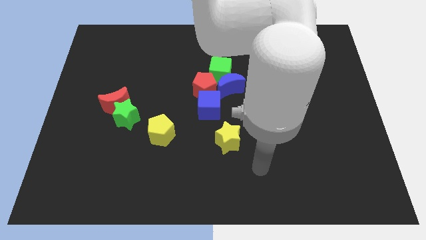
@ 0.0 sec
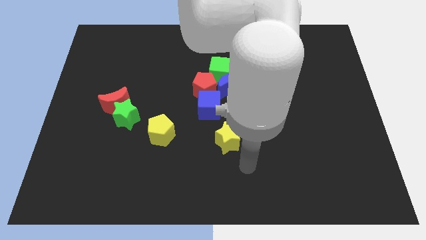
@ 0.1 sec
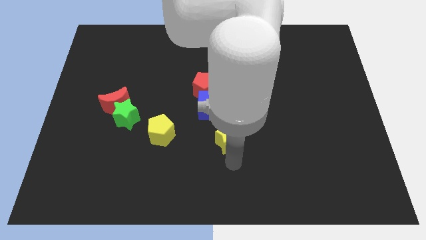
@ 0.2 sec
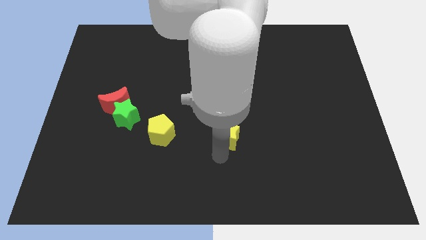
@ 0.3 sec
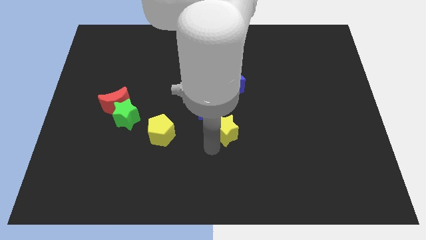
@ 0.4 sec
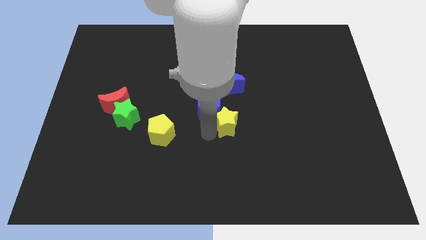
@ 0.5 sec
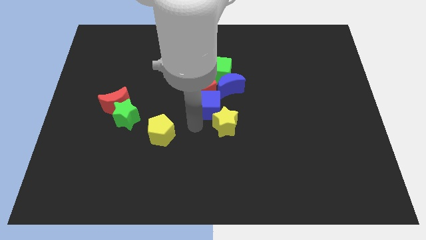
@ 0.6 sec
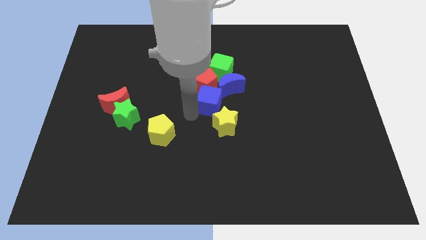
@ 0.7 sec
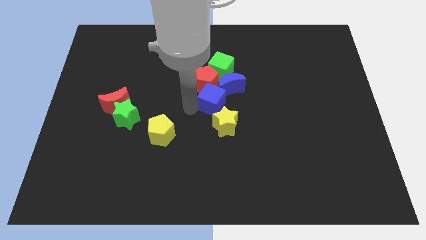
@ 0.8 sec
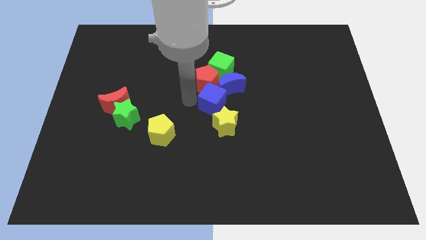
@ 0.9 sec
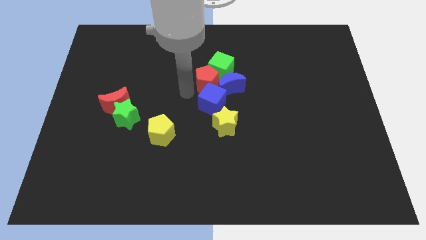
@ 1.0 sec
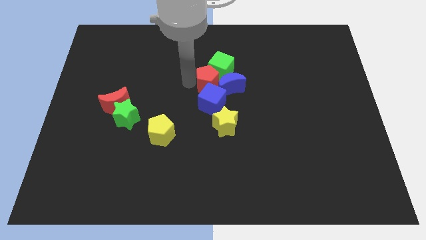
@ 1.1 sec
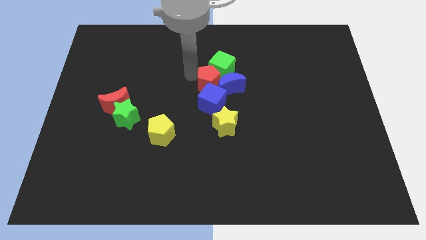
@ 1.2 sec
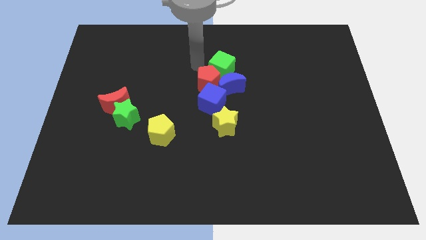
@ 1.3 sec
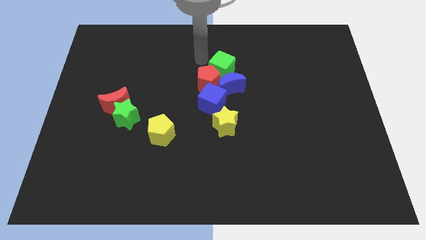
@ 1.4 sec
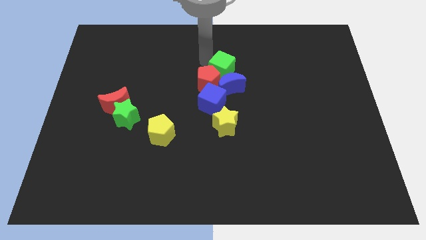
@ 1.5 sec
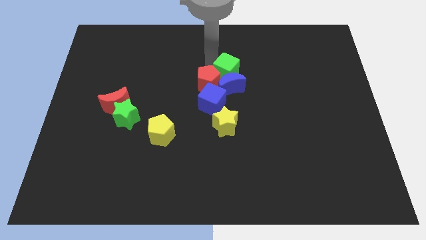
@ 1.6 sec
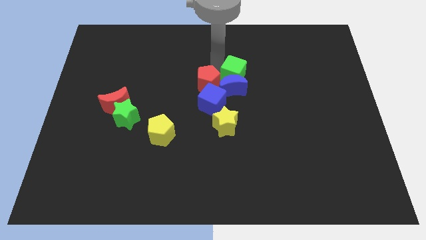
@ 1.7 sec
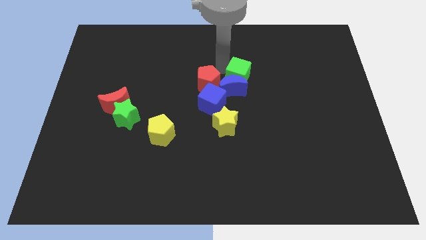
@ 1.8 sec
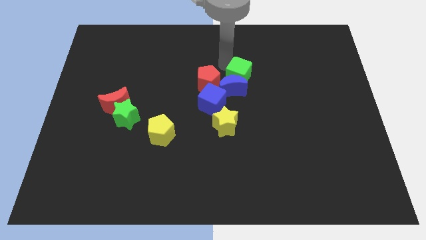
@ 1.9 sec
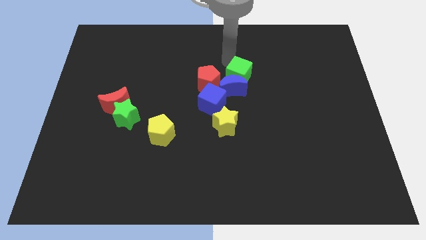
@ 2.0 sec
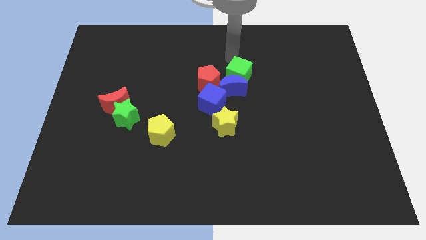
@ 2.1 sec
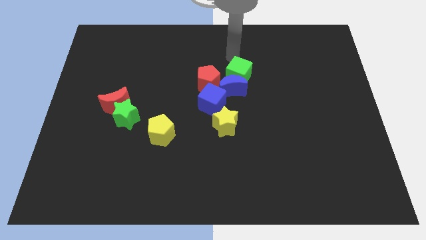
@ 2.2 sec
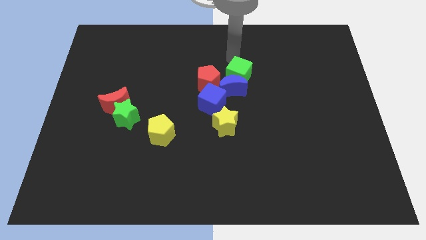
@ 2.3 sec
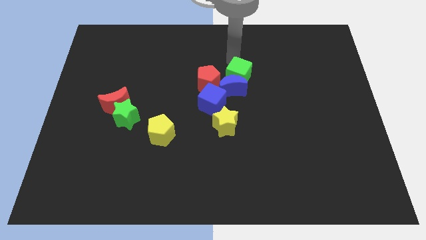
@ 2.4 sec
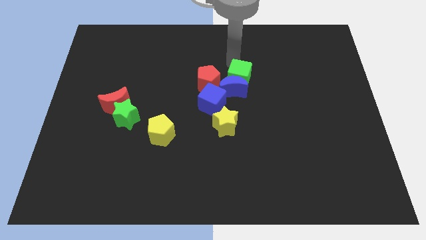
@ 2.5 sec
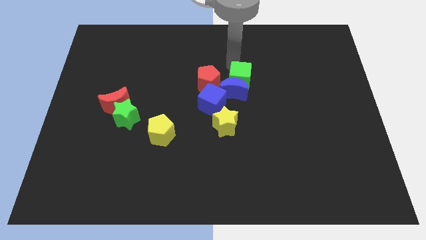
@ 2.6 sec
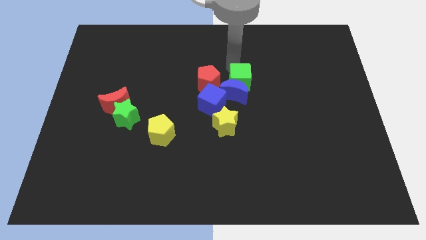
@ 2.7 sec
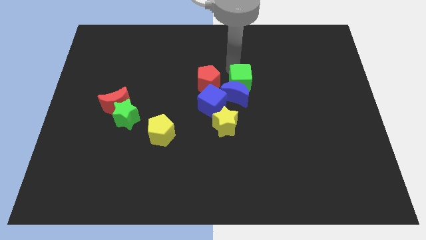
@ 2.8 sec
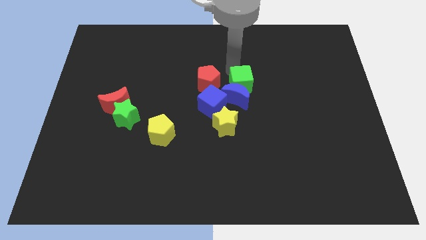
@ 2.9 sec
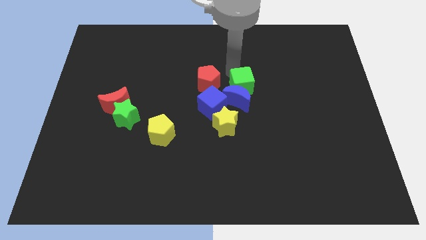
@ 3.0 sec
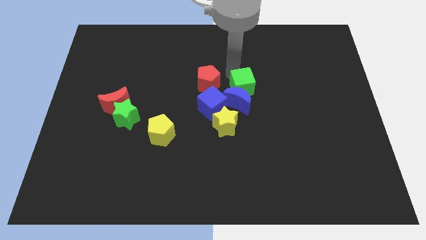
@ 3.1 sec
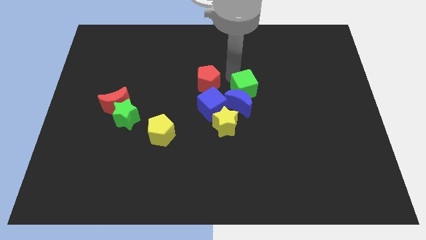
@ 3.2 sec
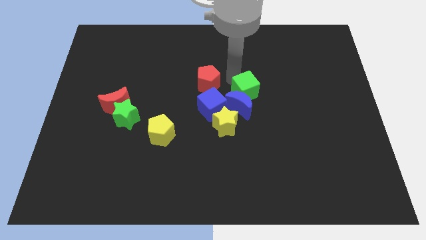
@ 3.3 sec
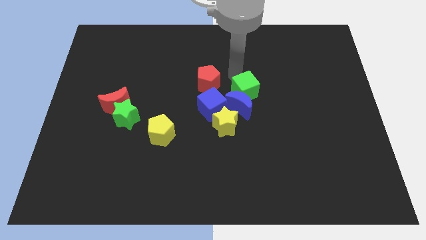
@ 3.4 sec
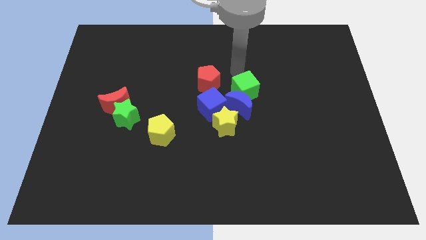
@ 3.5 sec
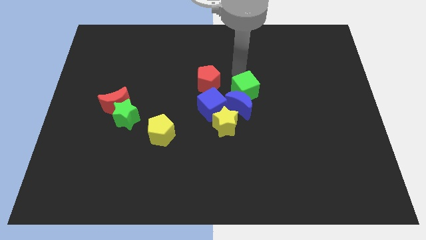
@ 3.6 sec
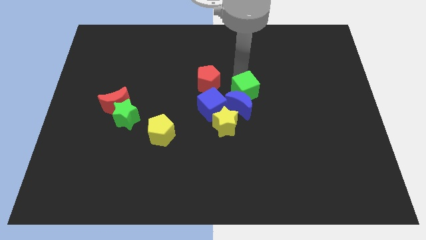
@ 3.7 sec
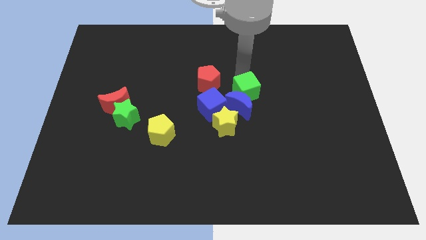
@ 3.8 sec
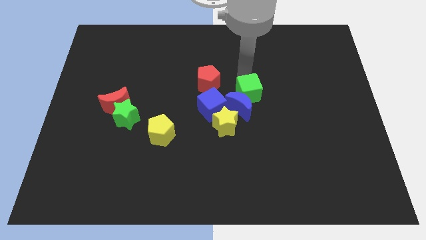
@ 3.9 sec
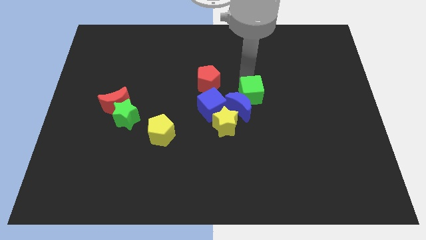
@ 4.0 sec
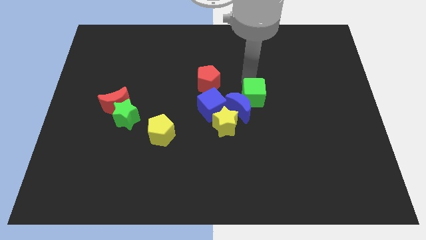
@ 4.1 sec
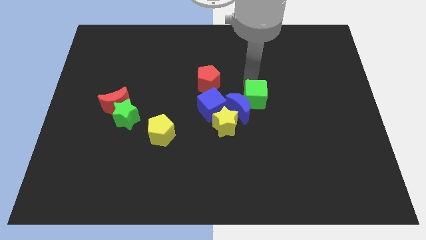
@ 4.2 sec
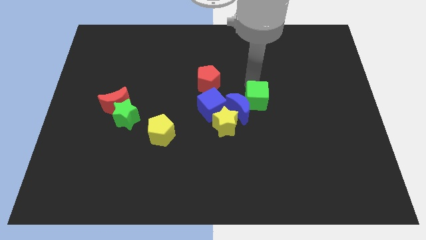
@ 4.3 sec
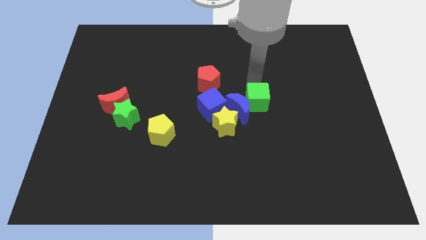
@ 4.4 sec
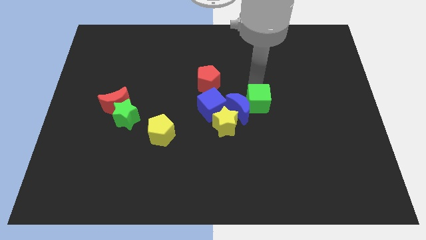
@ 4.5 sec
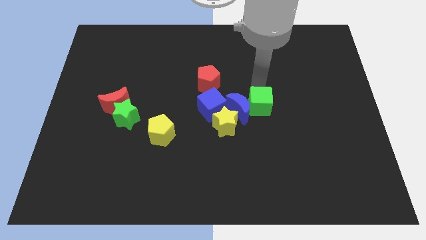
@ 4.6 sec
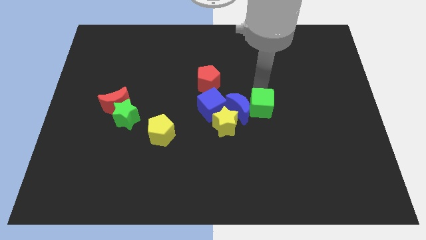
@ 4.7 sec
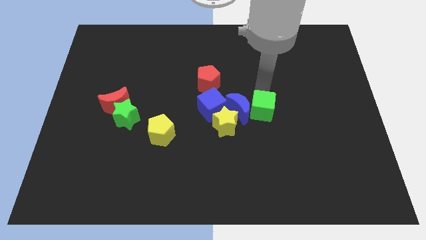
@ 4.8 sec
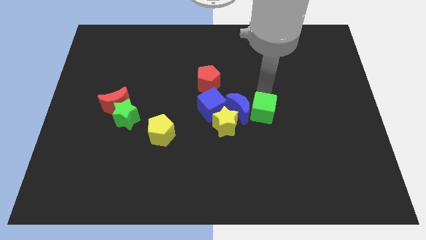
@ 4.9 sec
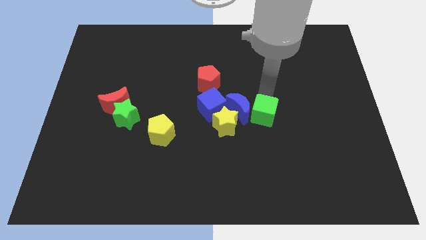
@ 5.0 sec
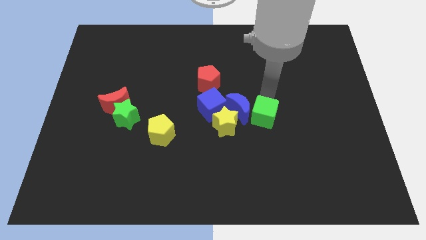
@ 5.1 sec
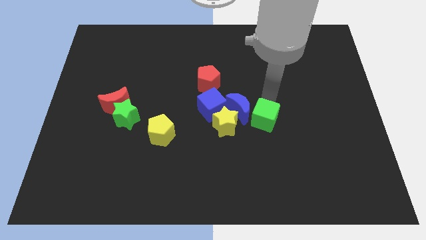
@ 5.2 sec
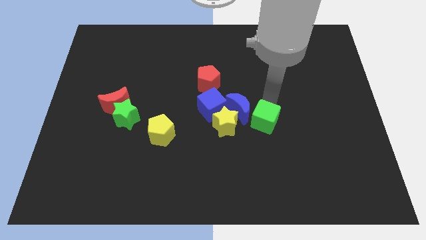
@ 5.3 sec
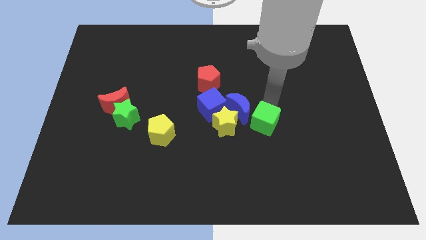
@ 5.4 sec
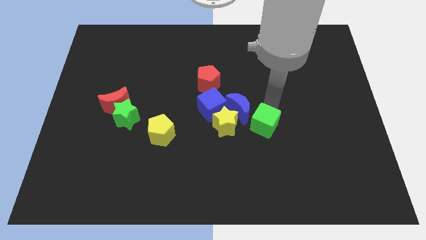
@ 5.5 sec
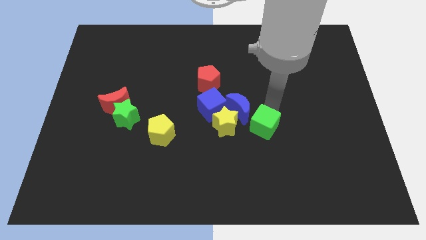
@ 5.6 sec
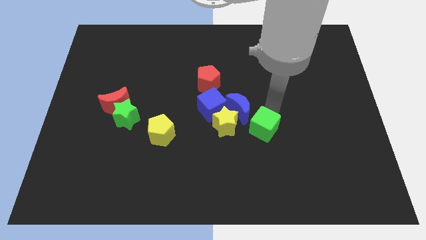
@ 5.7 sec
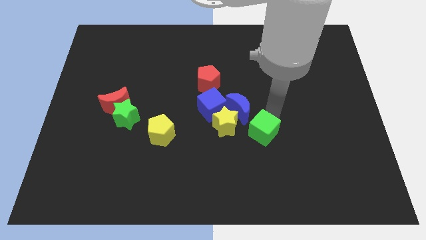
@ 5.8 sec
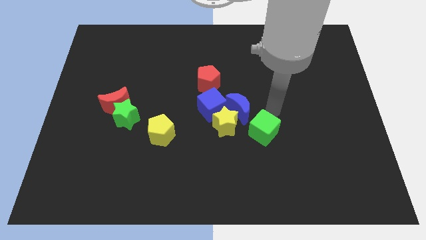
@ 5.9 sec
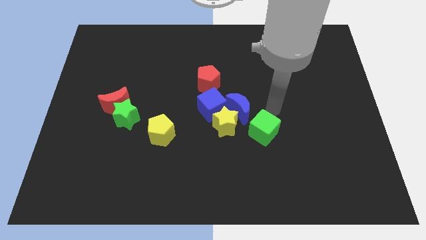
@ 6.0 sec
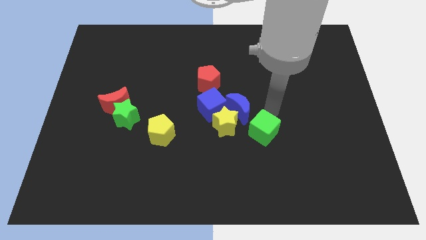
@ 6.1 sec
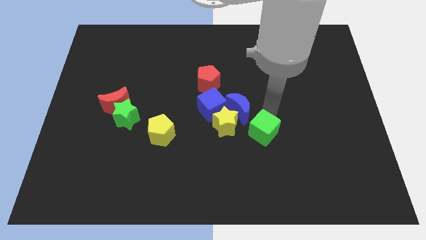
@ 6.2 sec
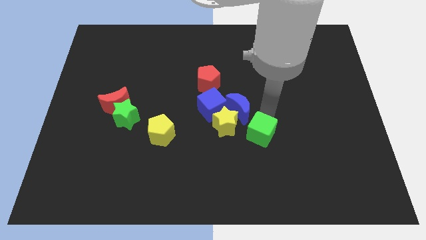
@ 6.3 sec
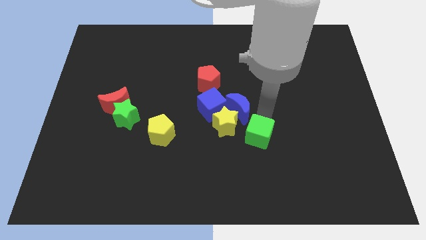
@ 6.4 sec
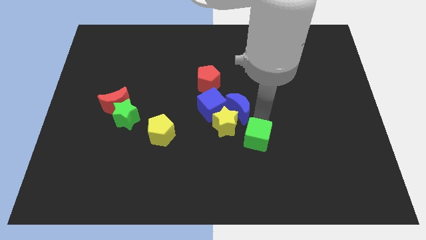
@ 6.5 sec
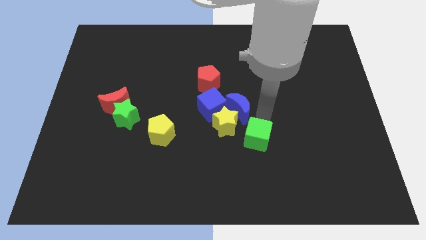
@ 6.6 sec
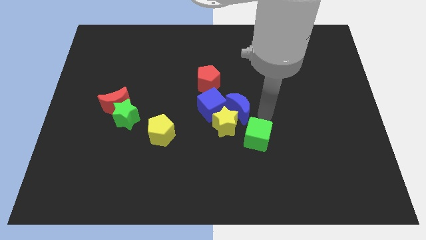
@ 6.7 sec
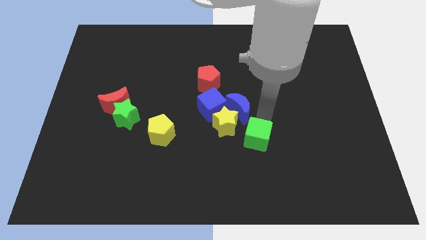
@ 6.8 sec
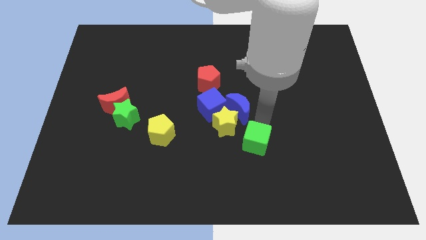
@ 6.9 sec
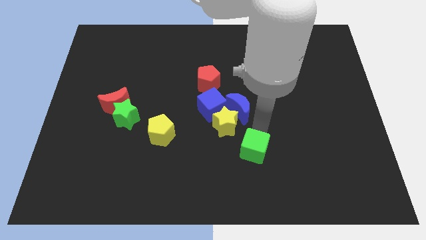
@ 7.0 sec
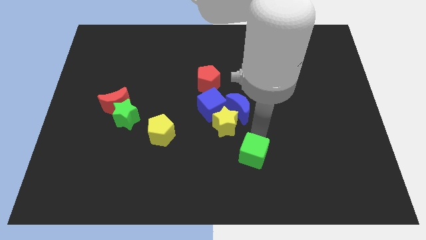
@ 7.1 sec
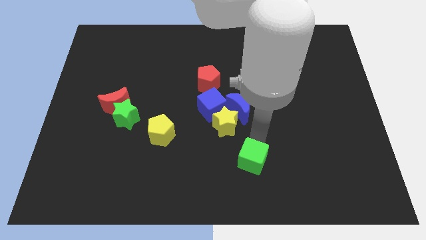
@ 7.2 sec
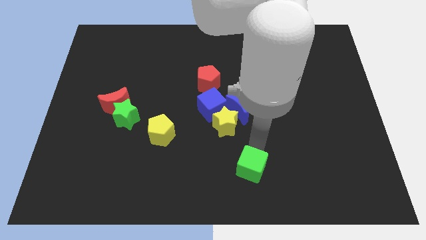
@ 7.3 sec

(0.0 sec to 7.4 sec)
put the green cube to the bottom side
